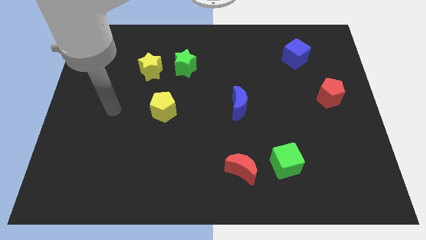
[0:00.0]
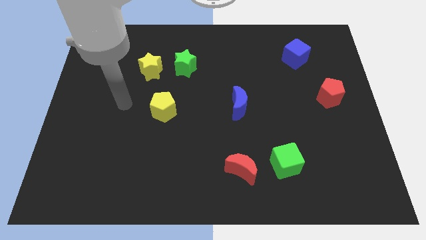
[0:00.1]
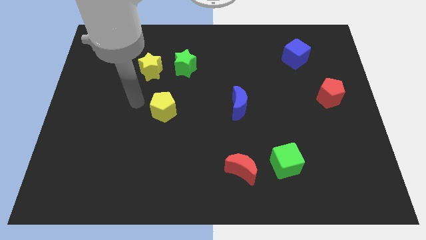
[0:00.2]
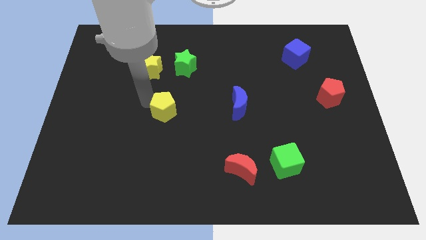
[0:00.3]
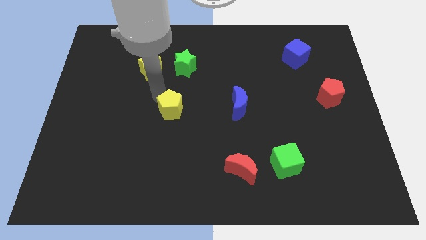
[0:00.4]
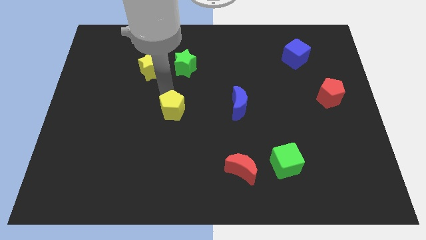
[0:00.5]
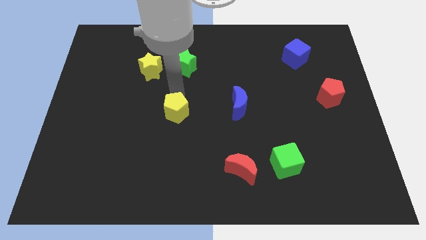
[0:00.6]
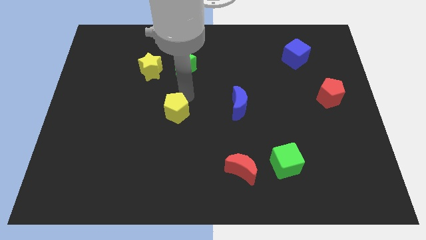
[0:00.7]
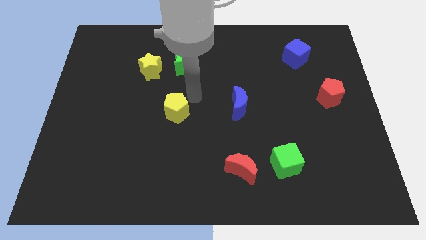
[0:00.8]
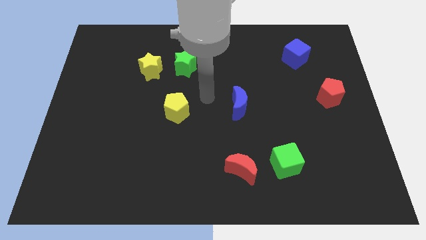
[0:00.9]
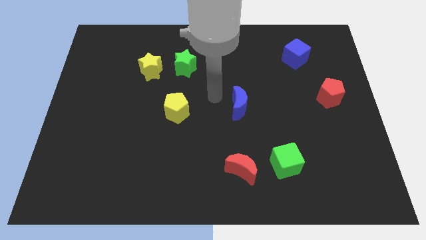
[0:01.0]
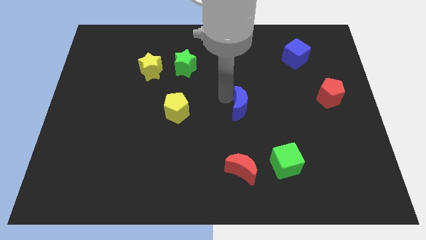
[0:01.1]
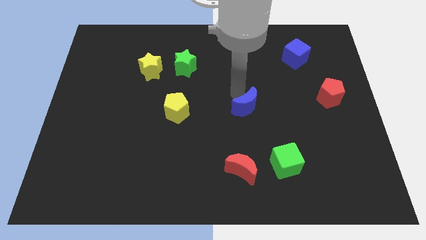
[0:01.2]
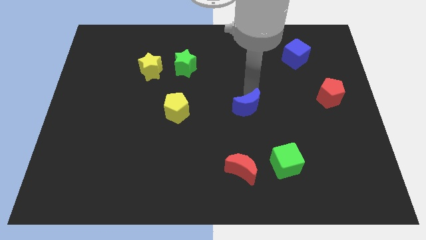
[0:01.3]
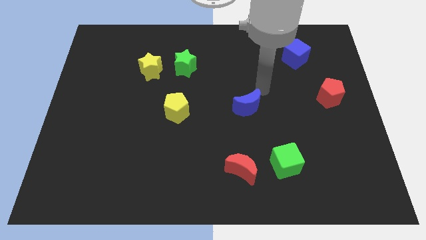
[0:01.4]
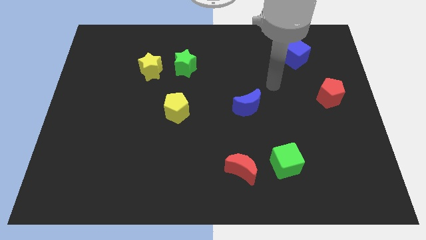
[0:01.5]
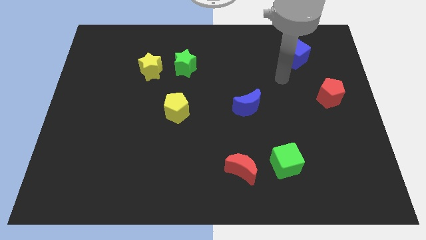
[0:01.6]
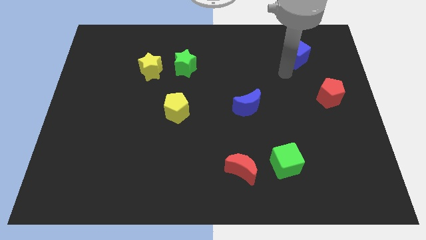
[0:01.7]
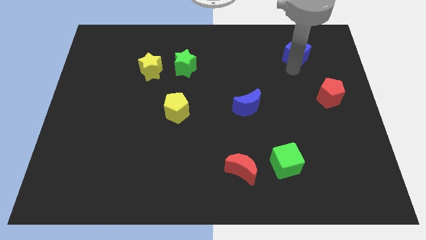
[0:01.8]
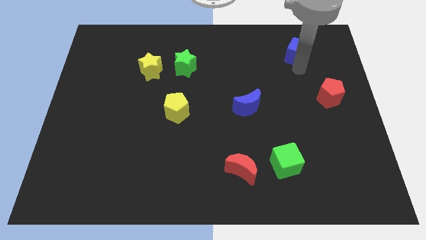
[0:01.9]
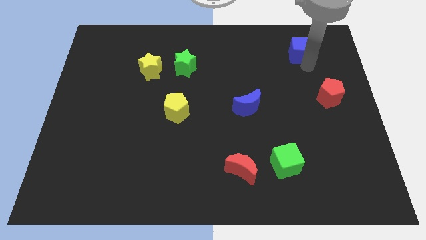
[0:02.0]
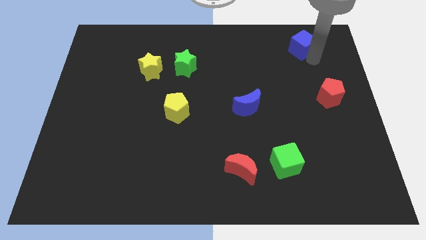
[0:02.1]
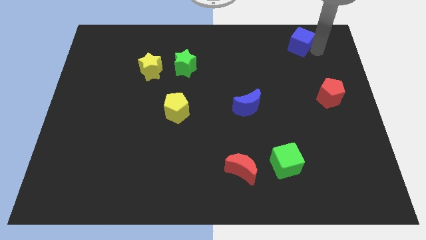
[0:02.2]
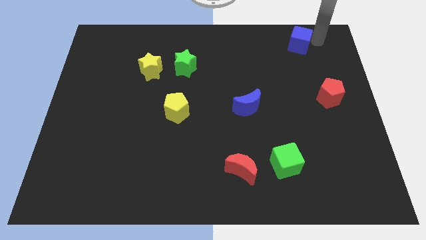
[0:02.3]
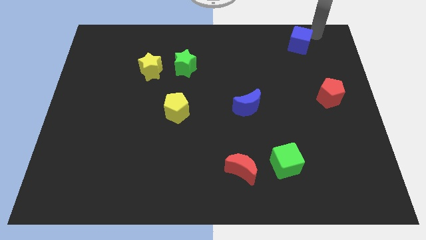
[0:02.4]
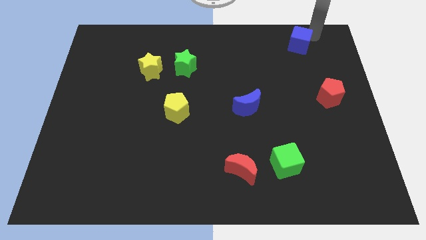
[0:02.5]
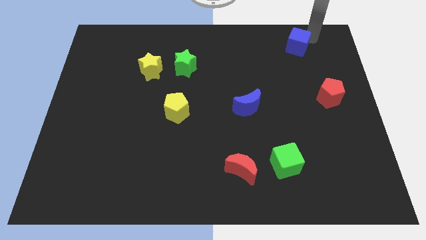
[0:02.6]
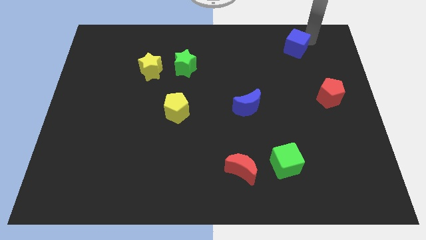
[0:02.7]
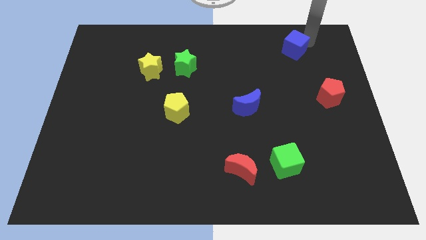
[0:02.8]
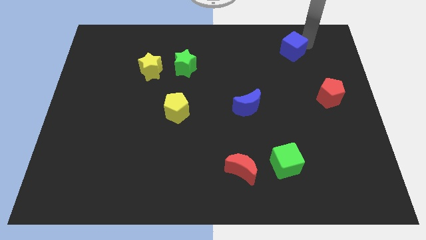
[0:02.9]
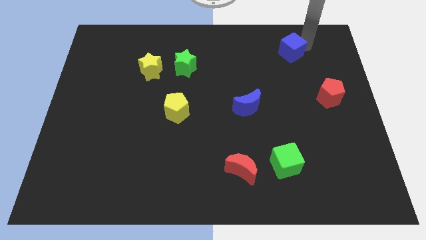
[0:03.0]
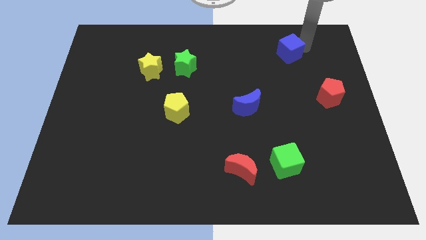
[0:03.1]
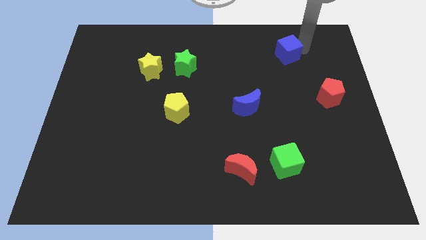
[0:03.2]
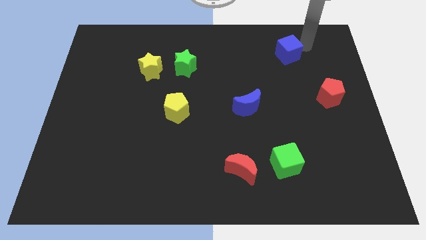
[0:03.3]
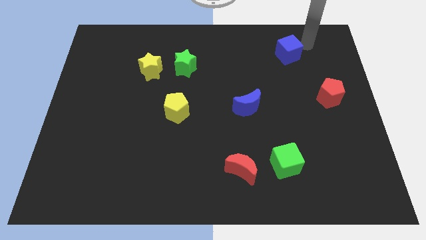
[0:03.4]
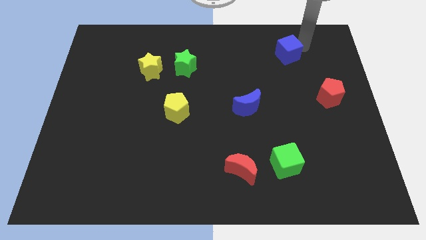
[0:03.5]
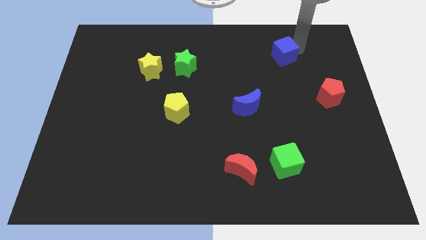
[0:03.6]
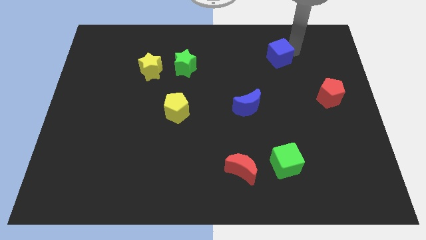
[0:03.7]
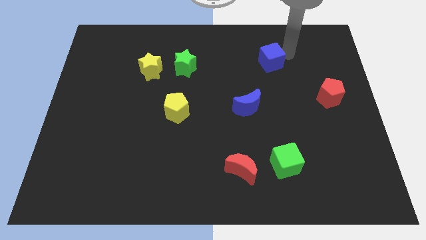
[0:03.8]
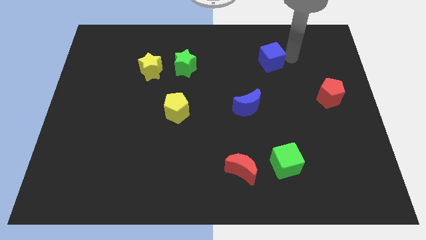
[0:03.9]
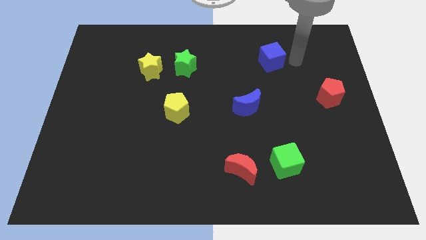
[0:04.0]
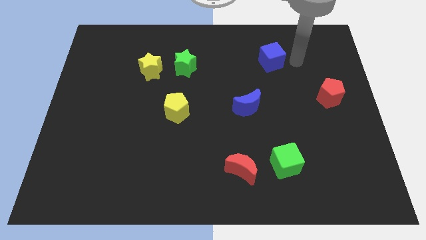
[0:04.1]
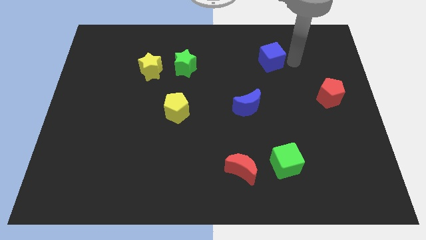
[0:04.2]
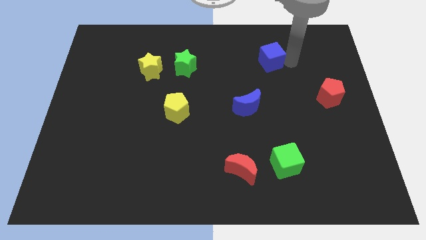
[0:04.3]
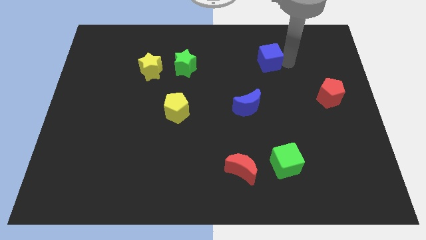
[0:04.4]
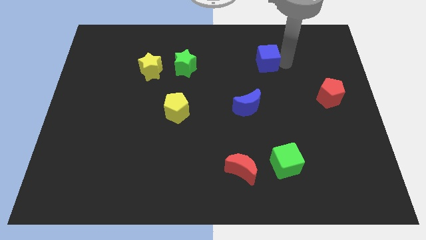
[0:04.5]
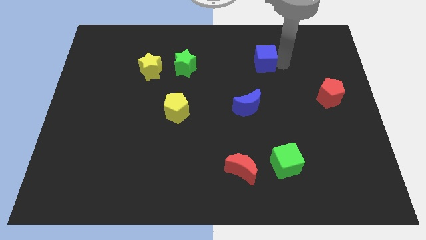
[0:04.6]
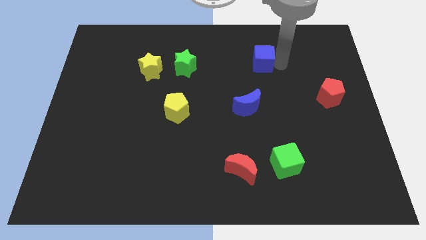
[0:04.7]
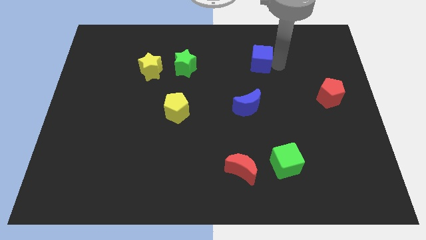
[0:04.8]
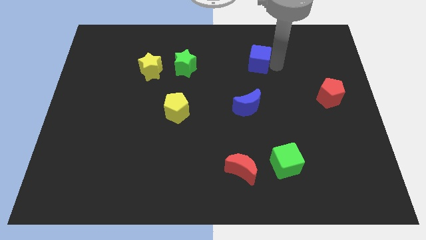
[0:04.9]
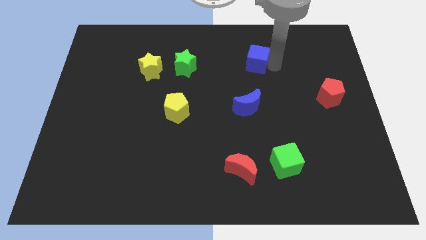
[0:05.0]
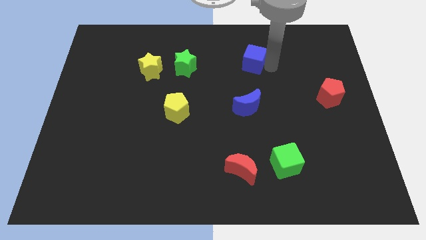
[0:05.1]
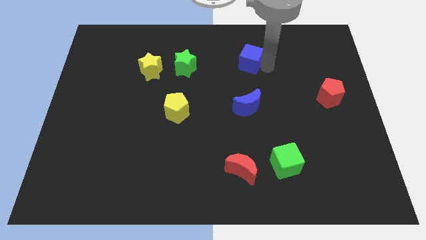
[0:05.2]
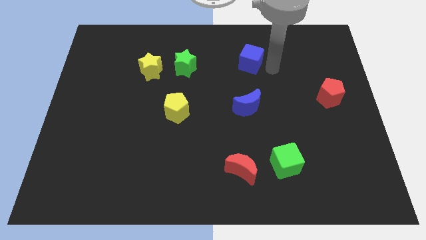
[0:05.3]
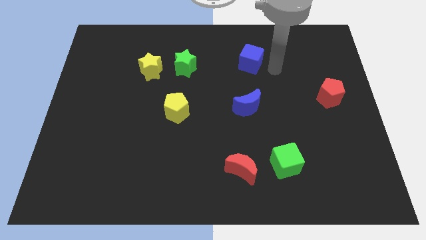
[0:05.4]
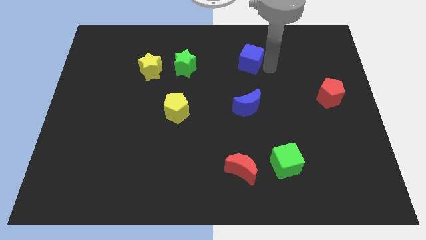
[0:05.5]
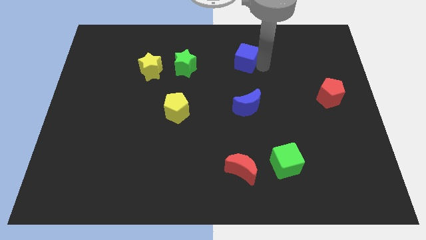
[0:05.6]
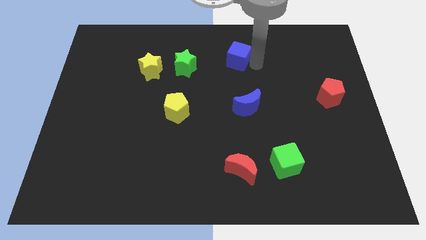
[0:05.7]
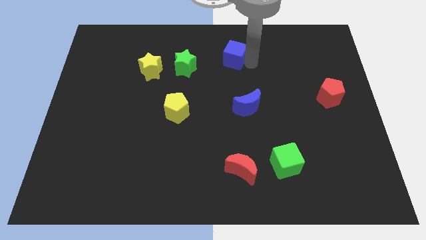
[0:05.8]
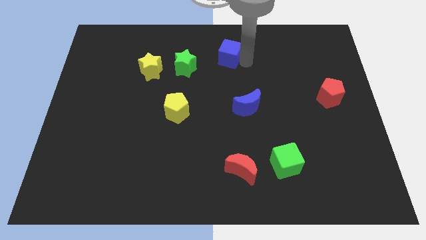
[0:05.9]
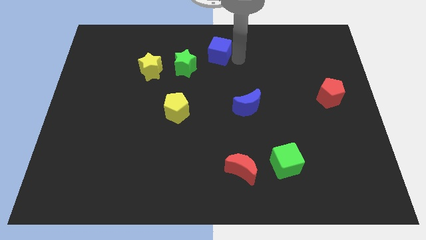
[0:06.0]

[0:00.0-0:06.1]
move the blue cube to the left

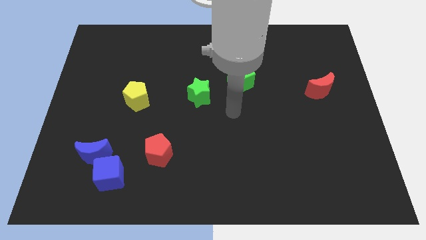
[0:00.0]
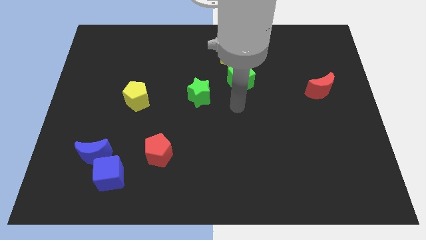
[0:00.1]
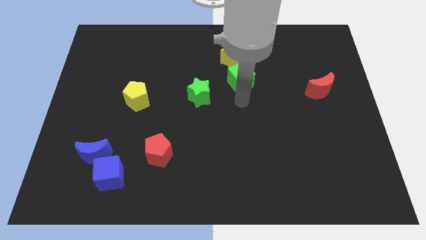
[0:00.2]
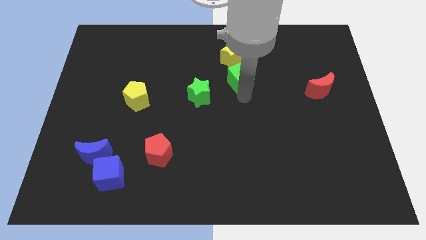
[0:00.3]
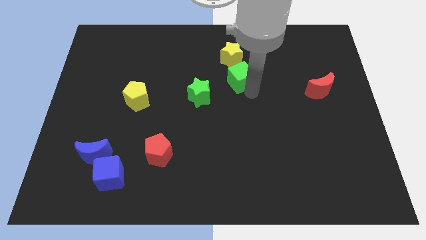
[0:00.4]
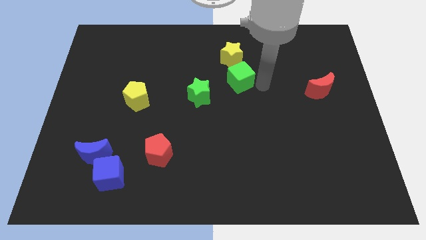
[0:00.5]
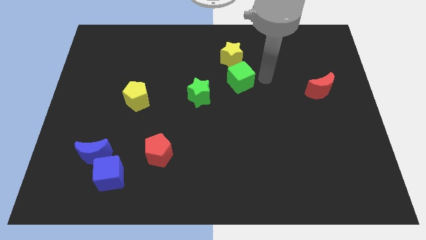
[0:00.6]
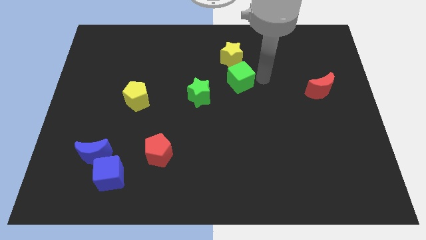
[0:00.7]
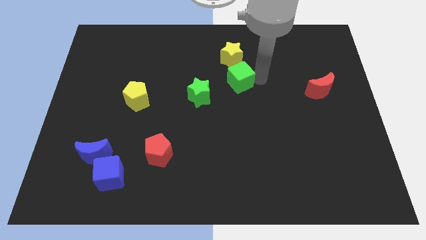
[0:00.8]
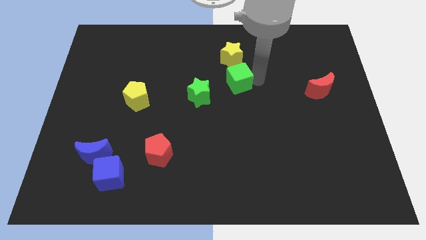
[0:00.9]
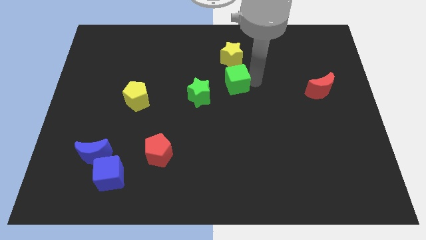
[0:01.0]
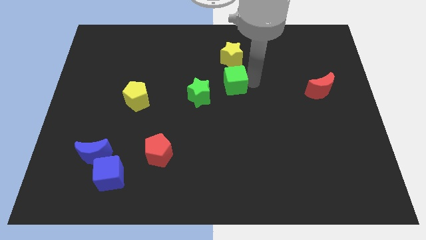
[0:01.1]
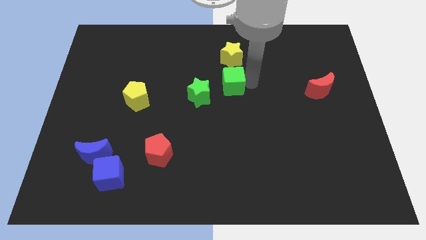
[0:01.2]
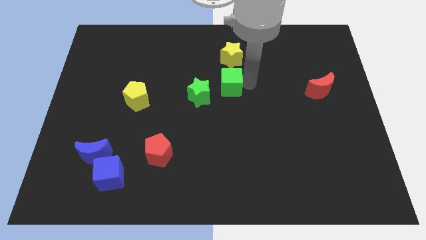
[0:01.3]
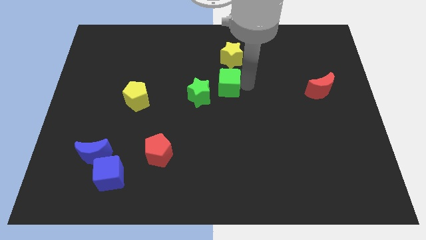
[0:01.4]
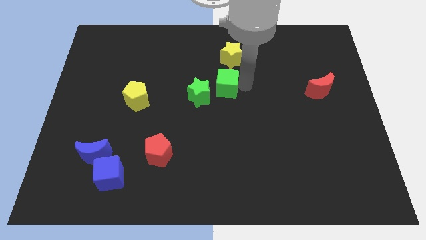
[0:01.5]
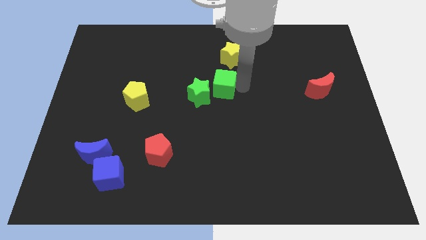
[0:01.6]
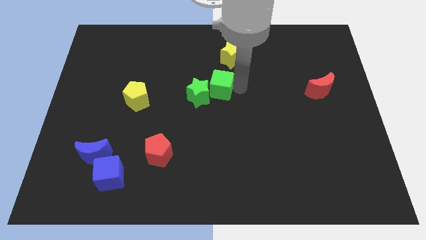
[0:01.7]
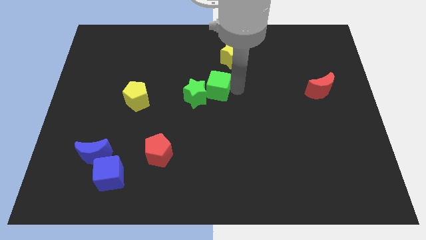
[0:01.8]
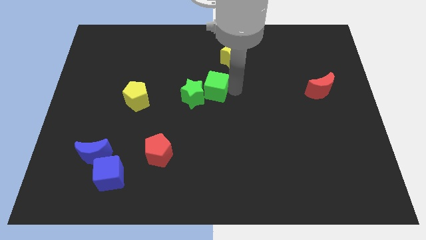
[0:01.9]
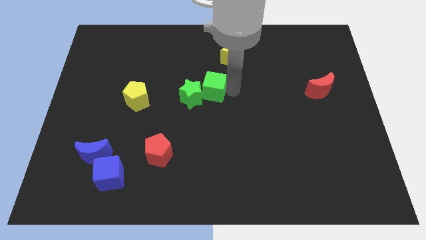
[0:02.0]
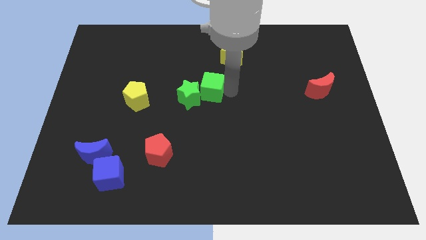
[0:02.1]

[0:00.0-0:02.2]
move the green cube to the left a little
